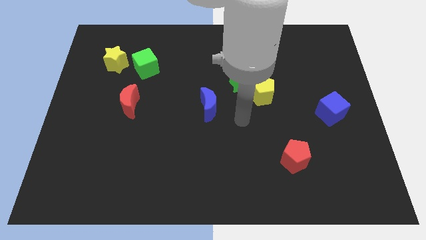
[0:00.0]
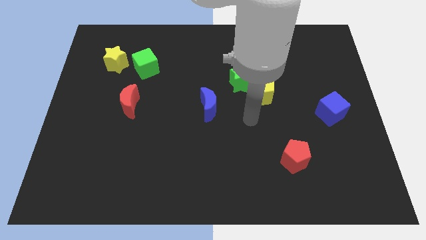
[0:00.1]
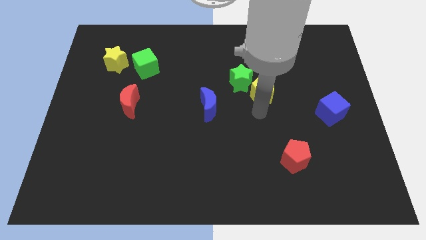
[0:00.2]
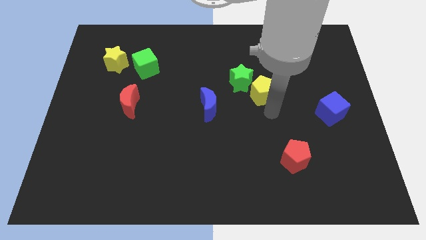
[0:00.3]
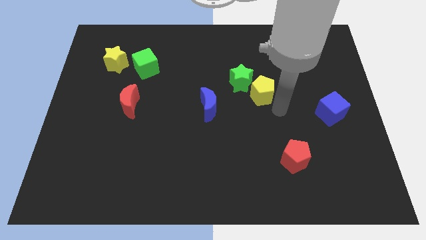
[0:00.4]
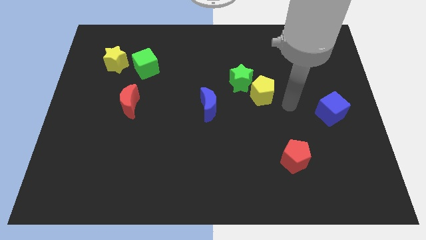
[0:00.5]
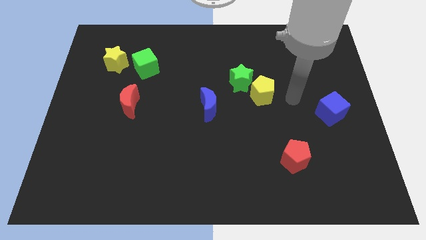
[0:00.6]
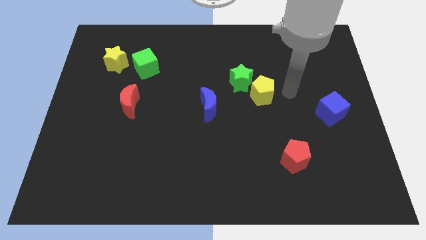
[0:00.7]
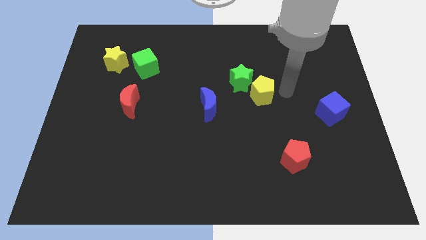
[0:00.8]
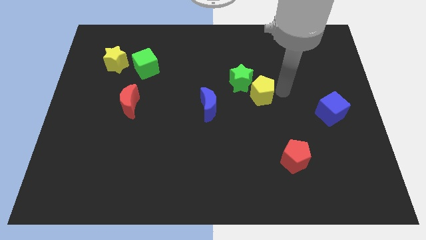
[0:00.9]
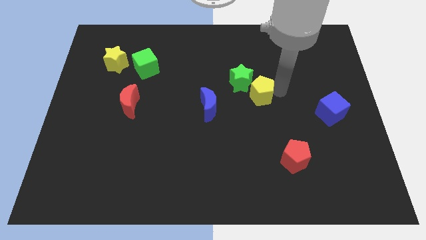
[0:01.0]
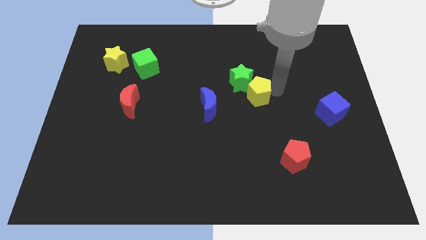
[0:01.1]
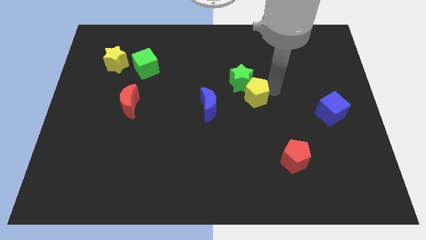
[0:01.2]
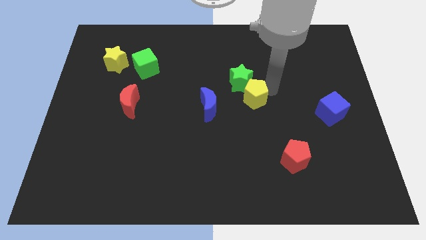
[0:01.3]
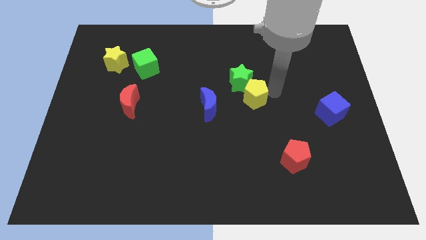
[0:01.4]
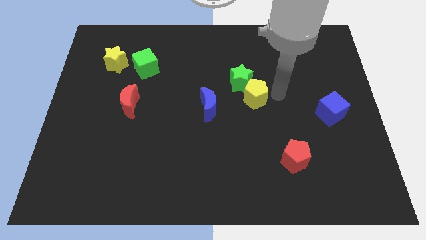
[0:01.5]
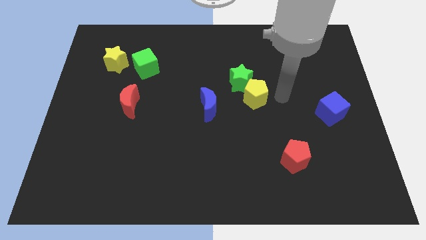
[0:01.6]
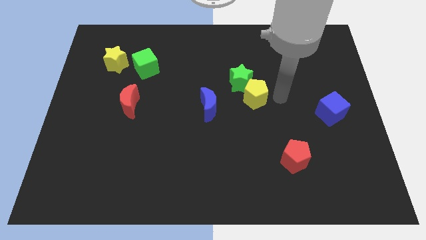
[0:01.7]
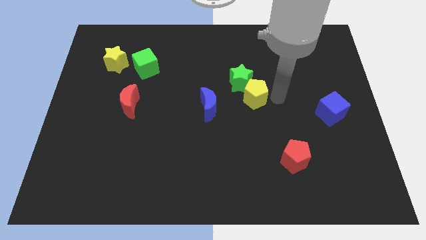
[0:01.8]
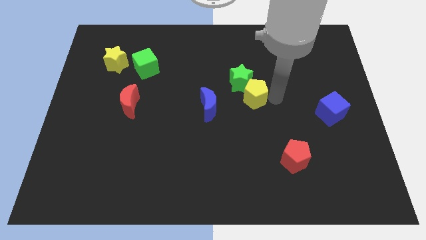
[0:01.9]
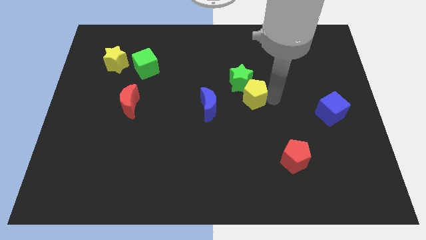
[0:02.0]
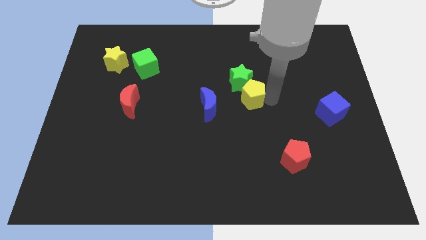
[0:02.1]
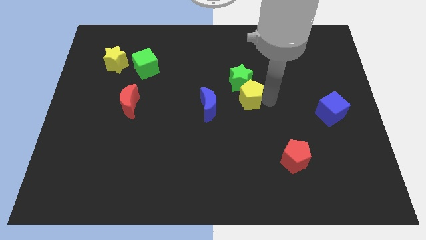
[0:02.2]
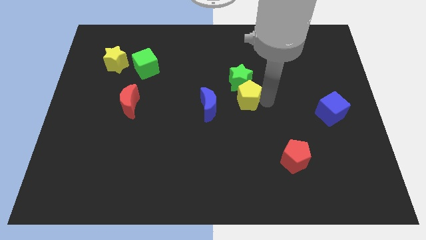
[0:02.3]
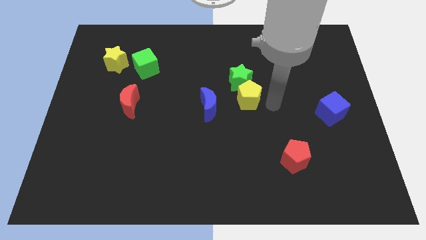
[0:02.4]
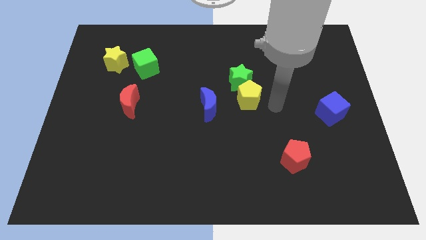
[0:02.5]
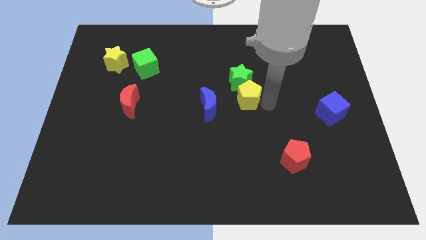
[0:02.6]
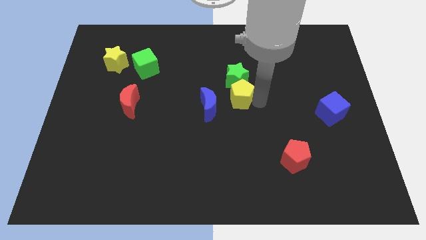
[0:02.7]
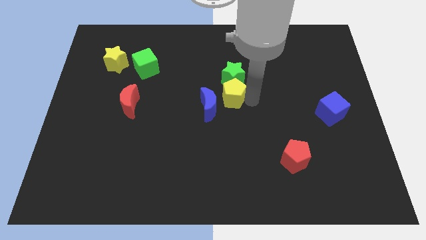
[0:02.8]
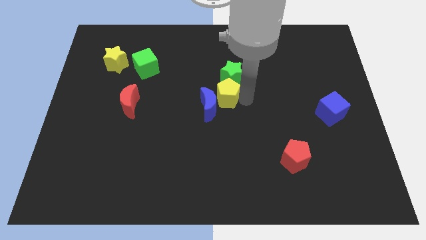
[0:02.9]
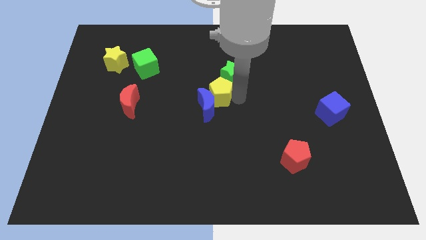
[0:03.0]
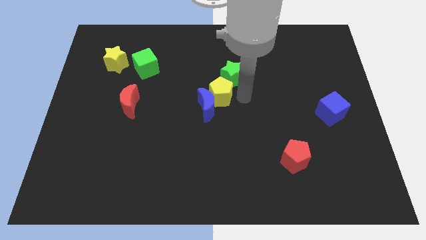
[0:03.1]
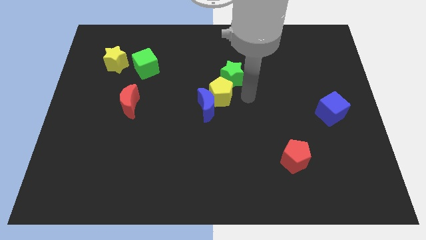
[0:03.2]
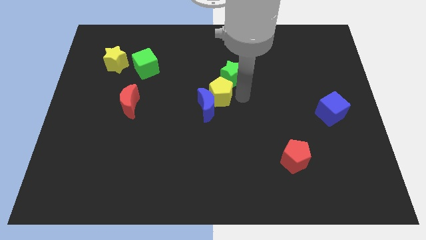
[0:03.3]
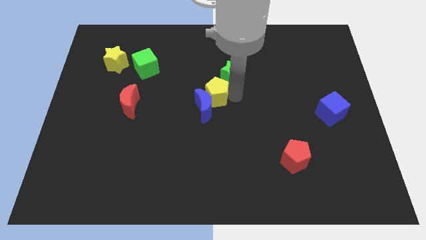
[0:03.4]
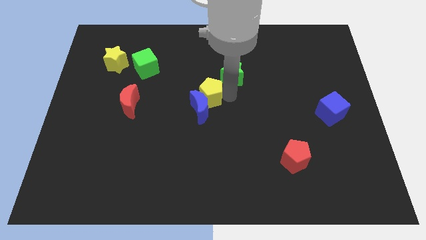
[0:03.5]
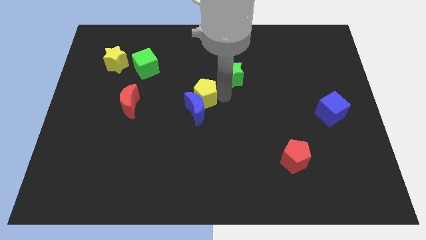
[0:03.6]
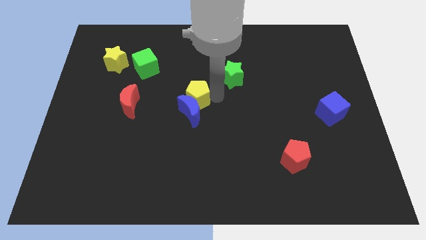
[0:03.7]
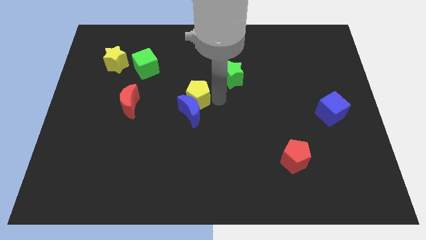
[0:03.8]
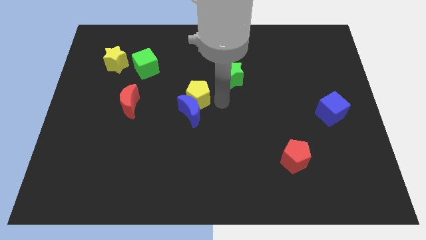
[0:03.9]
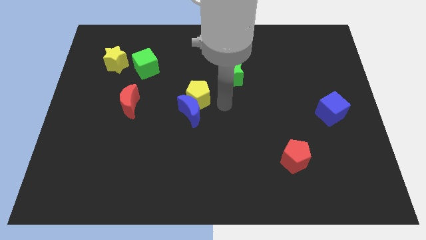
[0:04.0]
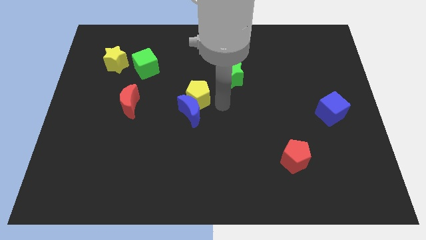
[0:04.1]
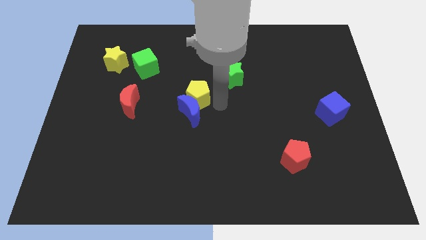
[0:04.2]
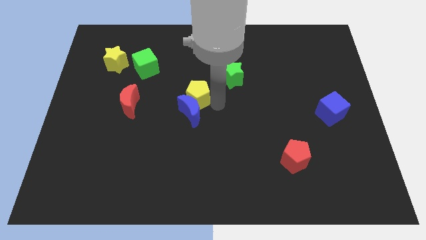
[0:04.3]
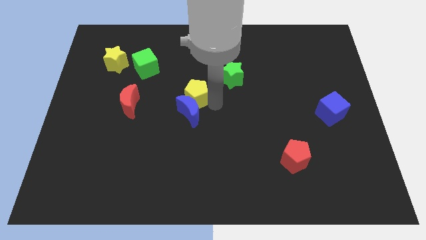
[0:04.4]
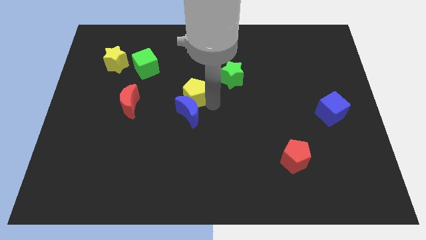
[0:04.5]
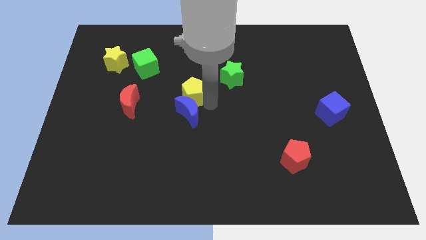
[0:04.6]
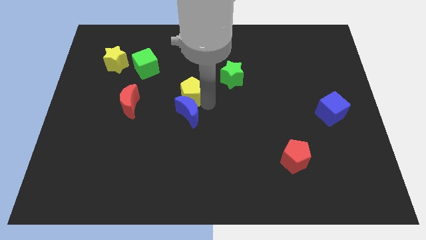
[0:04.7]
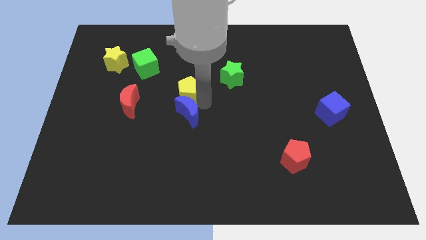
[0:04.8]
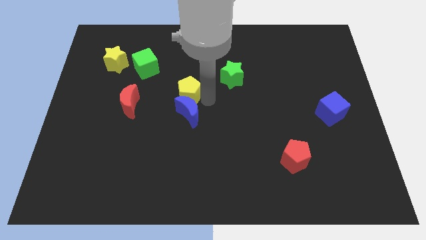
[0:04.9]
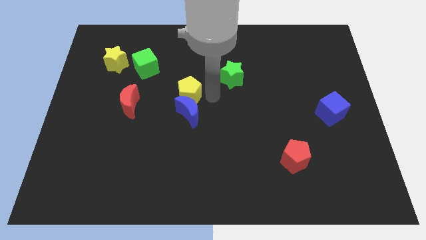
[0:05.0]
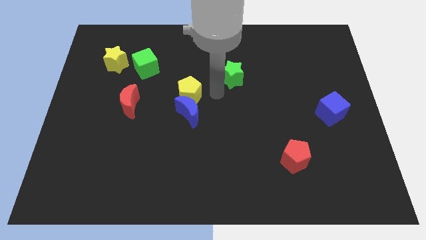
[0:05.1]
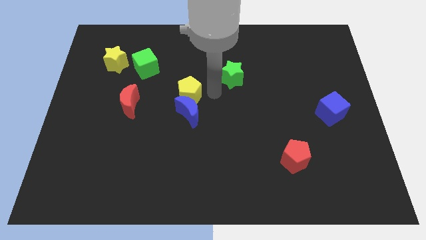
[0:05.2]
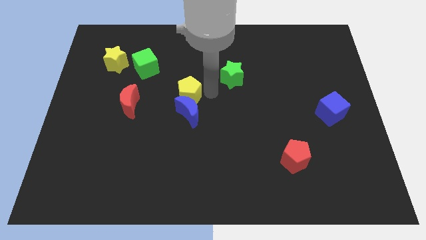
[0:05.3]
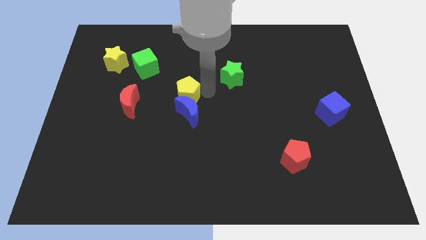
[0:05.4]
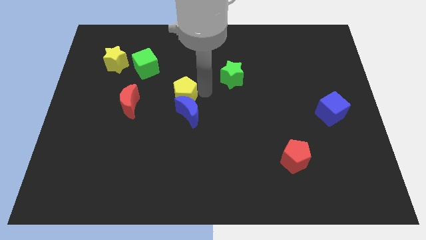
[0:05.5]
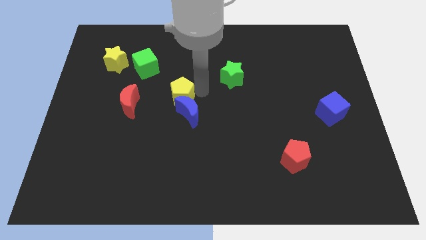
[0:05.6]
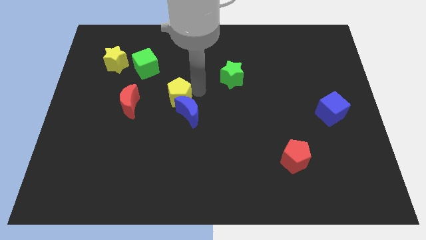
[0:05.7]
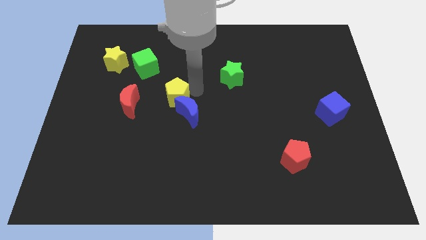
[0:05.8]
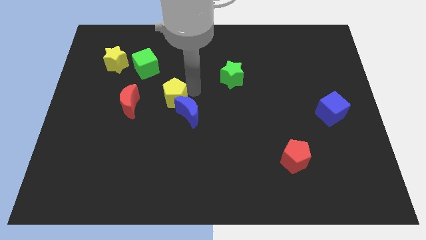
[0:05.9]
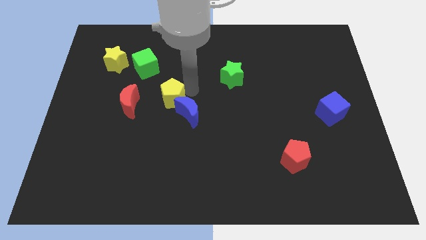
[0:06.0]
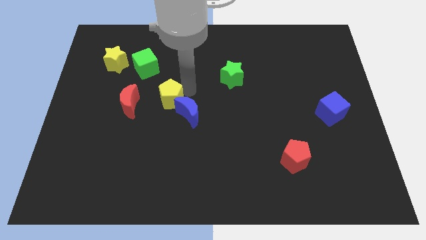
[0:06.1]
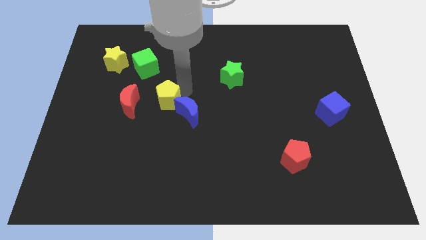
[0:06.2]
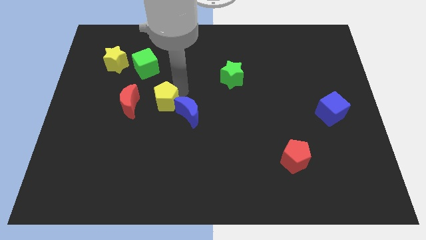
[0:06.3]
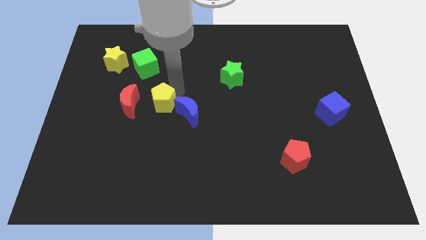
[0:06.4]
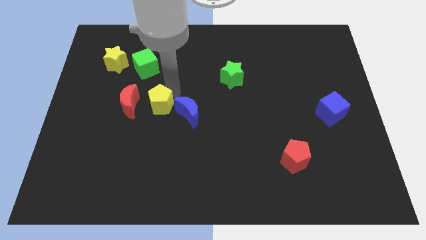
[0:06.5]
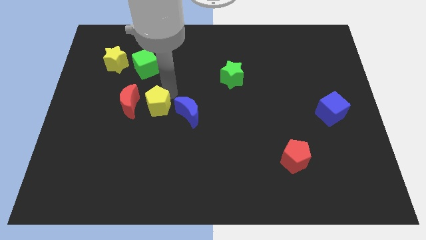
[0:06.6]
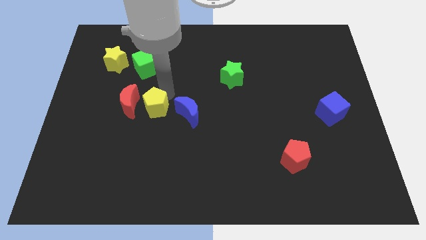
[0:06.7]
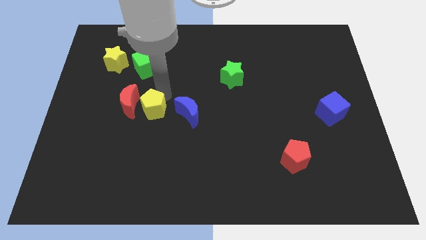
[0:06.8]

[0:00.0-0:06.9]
slide the yellow pentagon to the red moon
